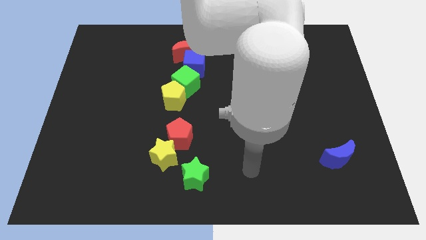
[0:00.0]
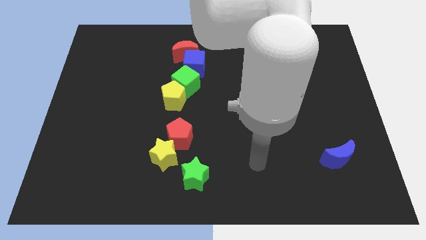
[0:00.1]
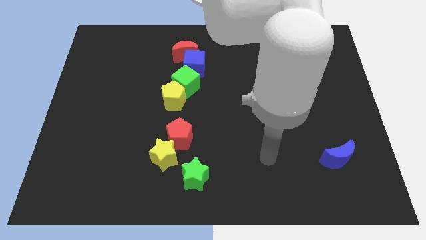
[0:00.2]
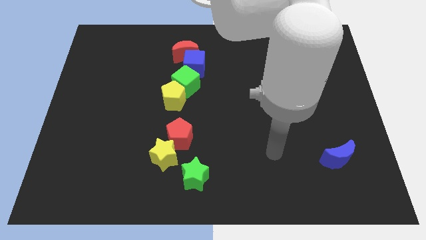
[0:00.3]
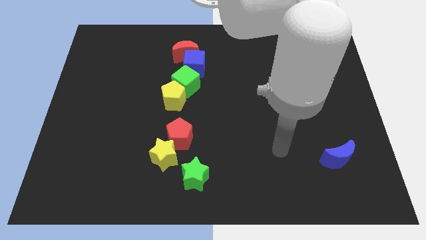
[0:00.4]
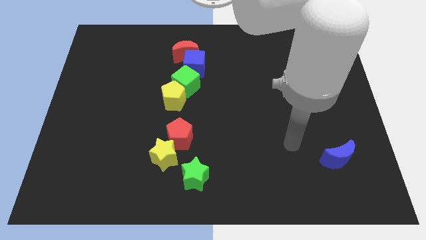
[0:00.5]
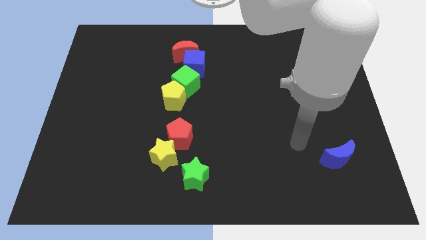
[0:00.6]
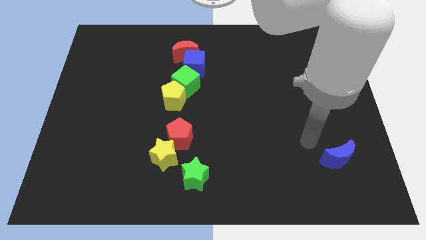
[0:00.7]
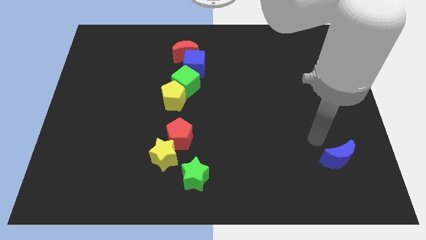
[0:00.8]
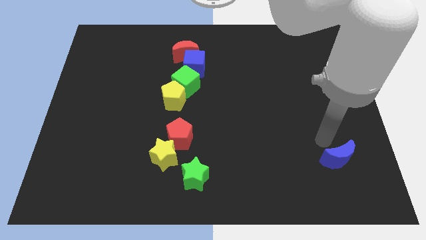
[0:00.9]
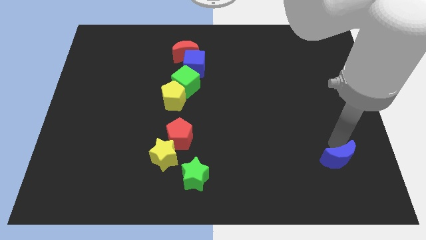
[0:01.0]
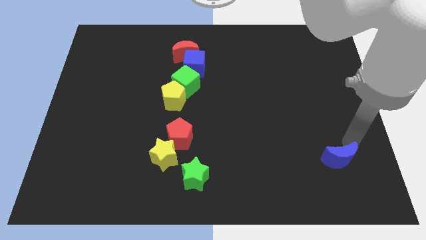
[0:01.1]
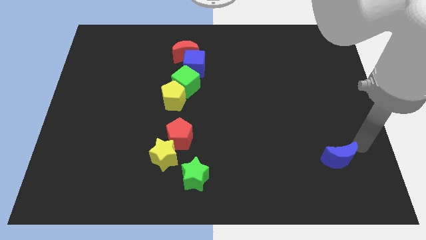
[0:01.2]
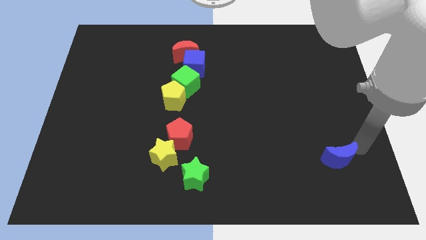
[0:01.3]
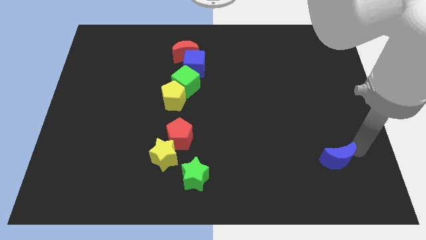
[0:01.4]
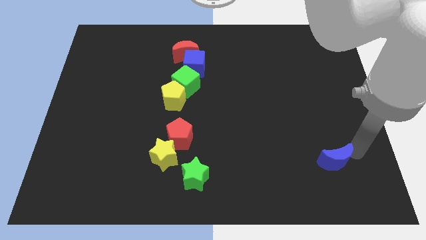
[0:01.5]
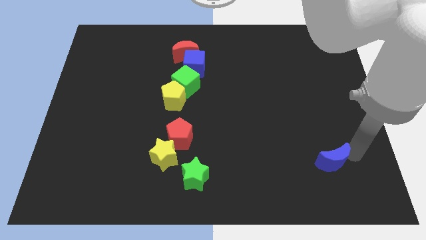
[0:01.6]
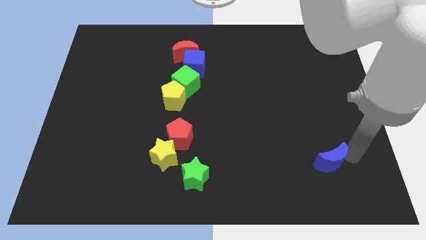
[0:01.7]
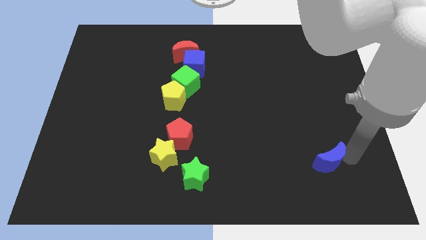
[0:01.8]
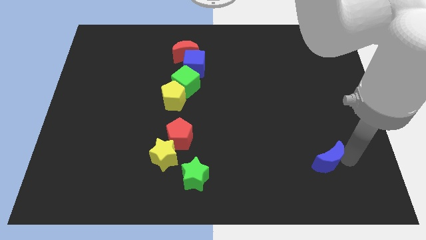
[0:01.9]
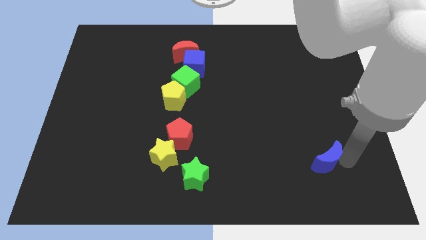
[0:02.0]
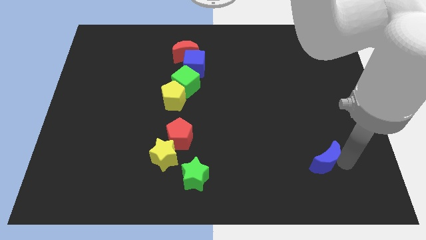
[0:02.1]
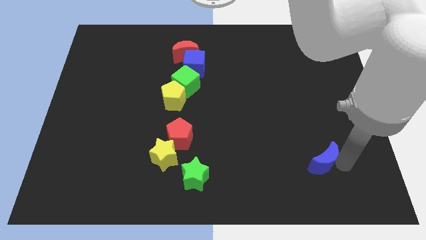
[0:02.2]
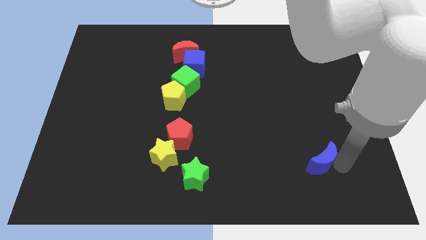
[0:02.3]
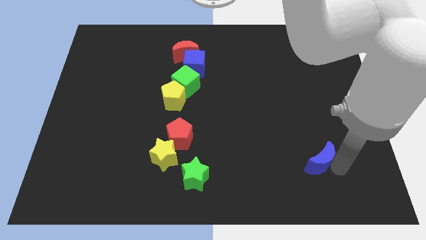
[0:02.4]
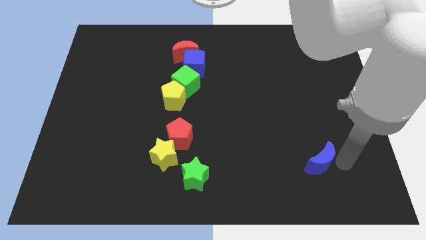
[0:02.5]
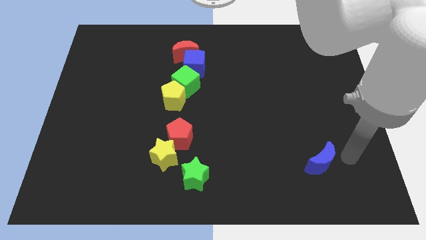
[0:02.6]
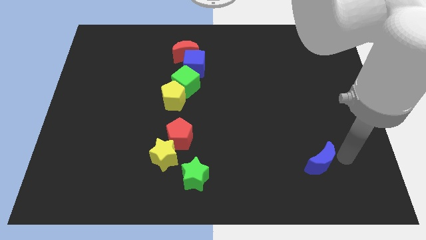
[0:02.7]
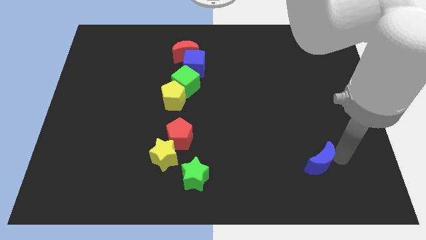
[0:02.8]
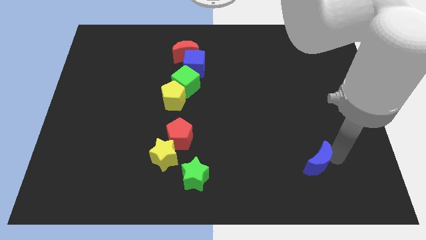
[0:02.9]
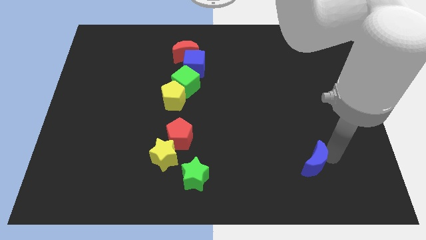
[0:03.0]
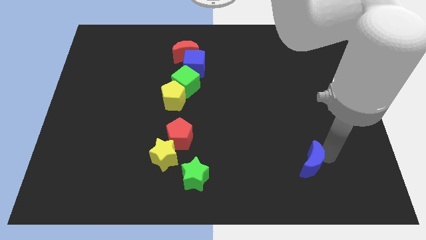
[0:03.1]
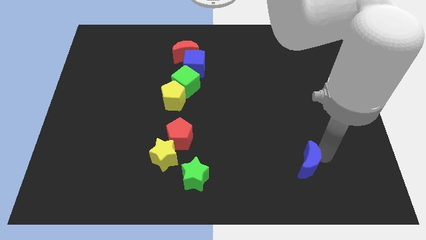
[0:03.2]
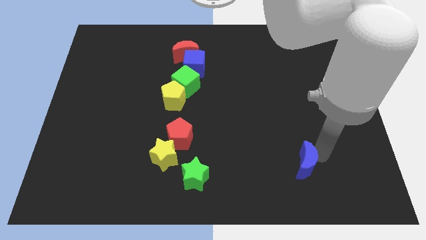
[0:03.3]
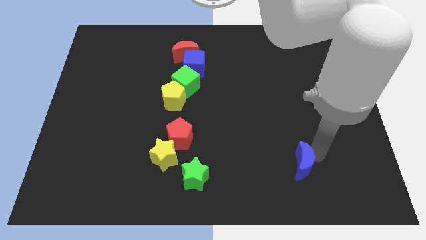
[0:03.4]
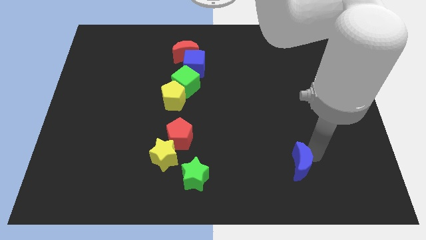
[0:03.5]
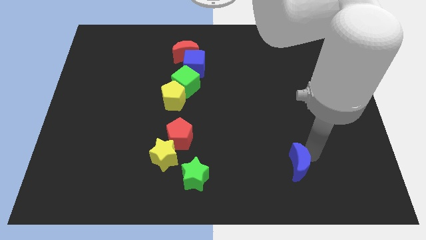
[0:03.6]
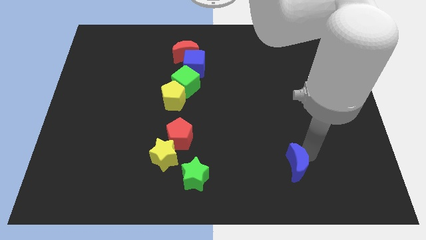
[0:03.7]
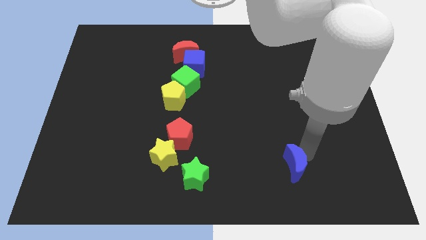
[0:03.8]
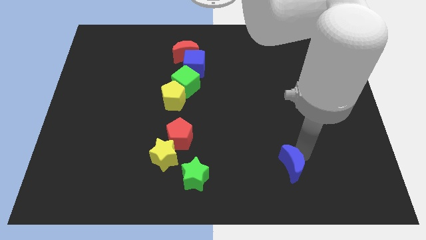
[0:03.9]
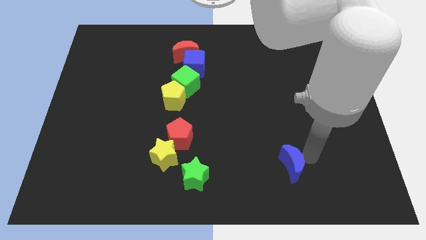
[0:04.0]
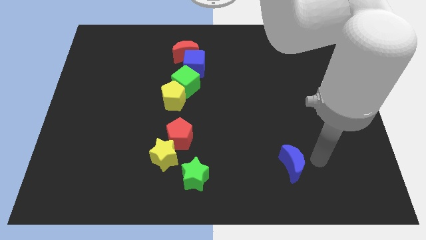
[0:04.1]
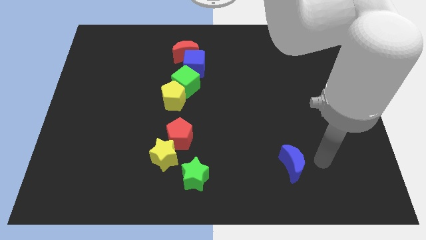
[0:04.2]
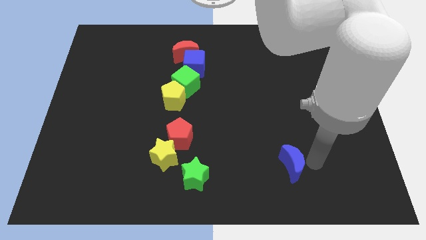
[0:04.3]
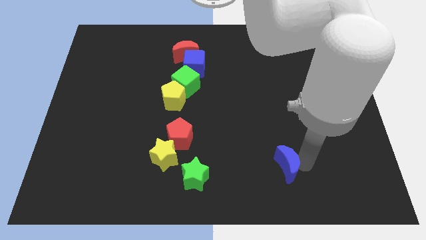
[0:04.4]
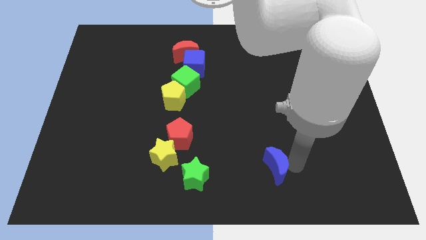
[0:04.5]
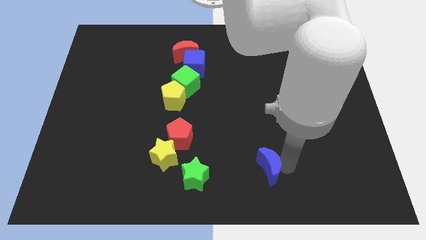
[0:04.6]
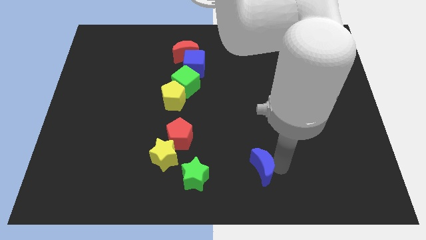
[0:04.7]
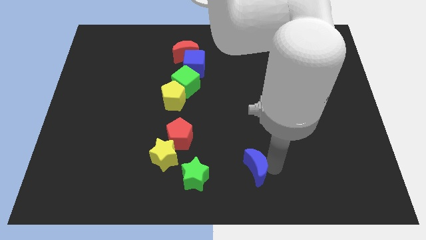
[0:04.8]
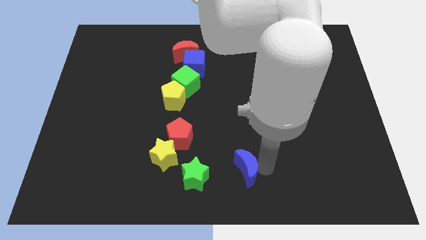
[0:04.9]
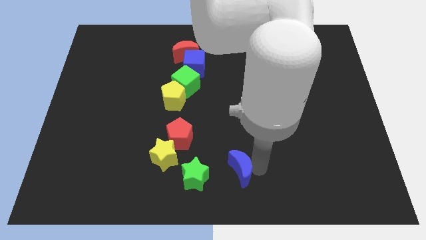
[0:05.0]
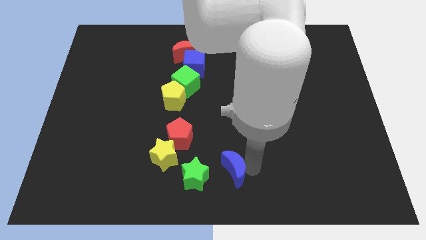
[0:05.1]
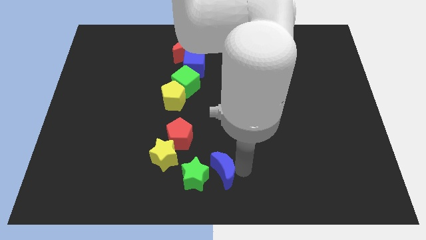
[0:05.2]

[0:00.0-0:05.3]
put the blue moon close to the green star

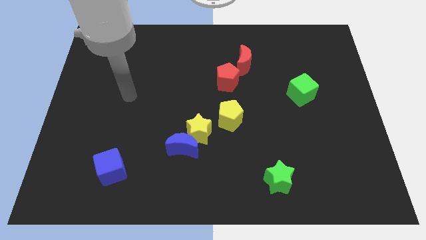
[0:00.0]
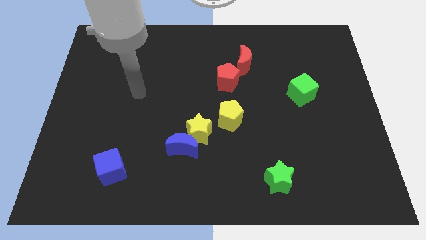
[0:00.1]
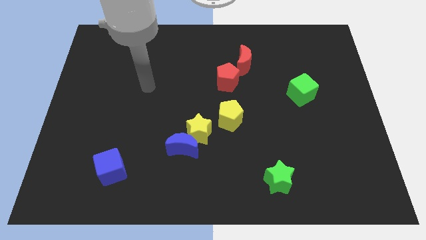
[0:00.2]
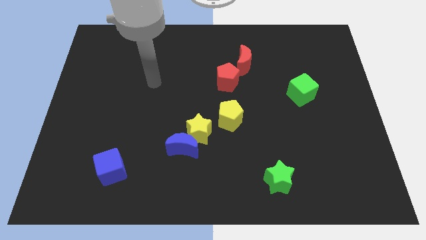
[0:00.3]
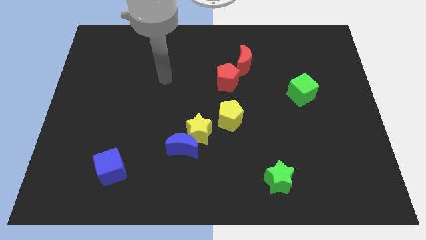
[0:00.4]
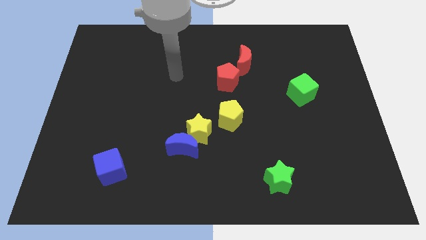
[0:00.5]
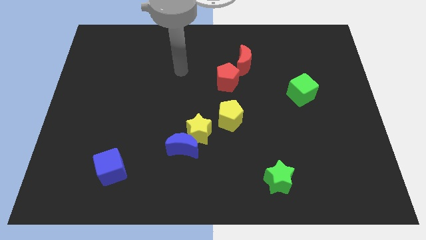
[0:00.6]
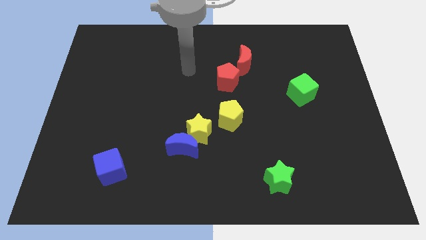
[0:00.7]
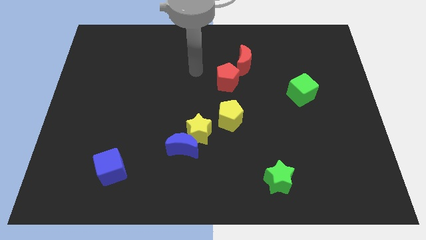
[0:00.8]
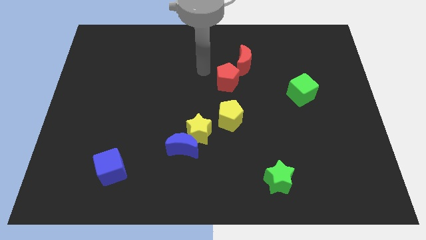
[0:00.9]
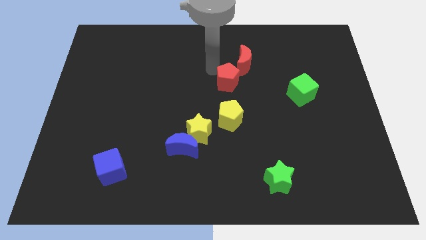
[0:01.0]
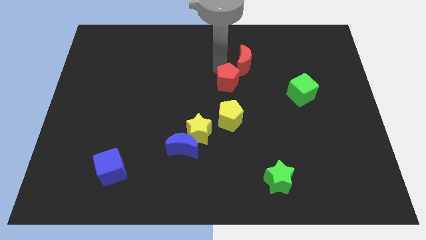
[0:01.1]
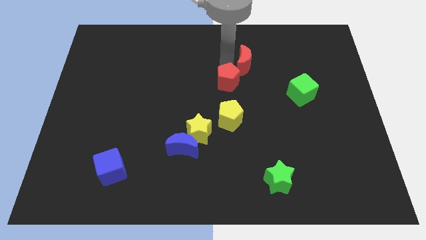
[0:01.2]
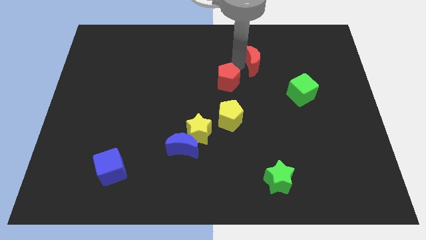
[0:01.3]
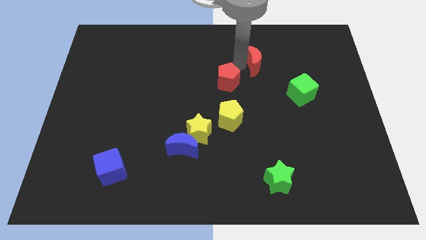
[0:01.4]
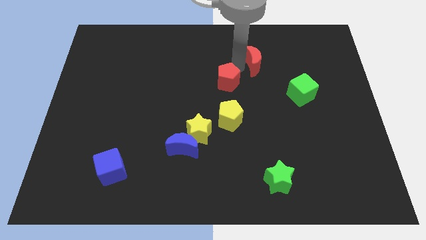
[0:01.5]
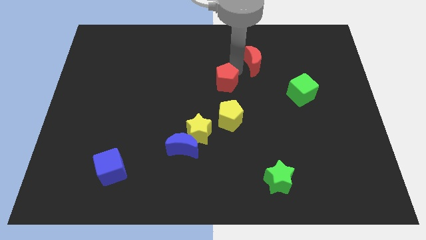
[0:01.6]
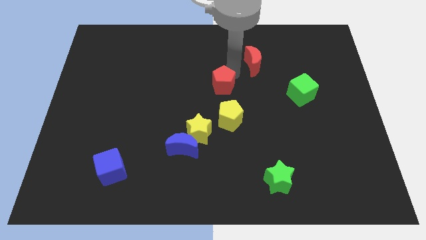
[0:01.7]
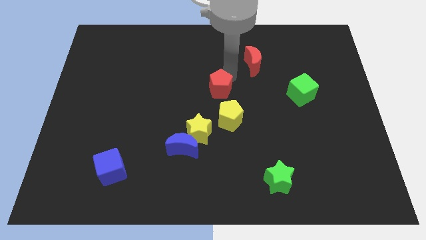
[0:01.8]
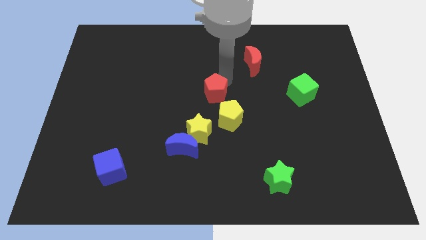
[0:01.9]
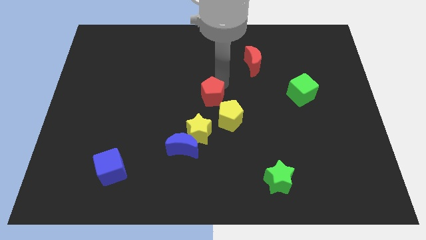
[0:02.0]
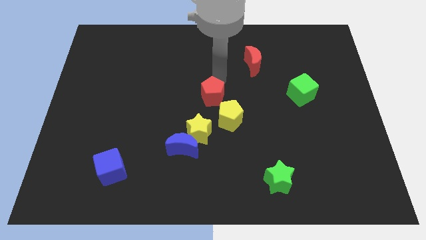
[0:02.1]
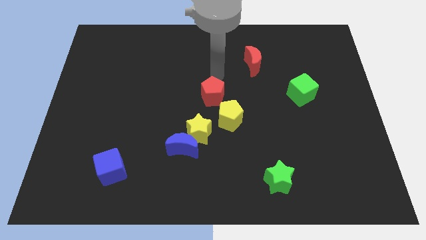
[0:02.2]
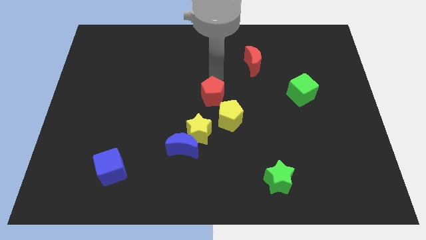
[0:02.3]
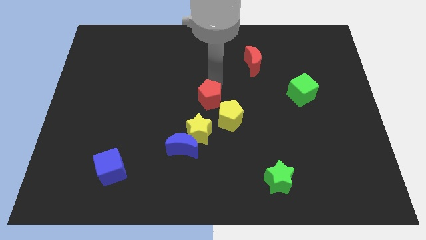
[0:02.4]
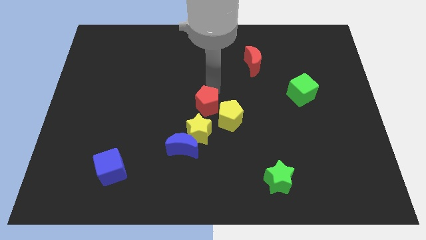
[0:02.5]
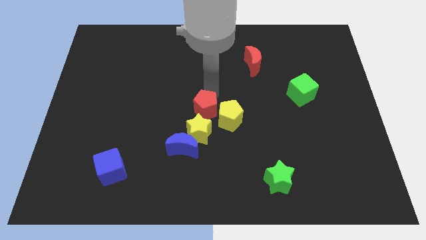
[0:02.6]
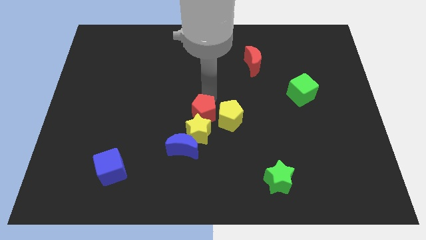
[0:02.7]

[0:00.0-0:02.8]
slide the red pentagon to the yellow star
